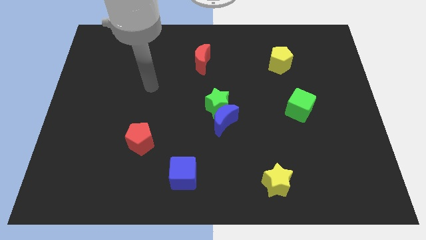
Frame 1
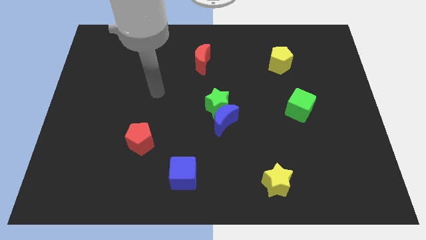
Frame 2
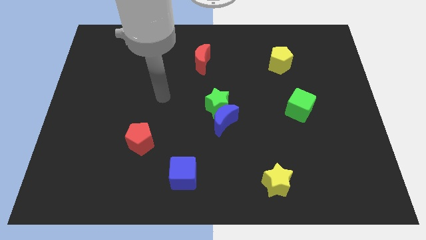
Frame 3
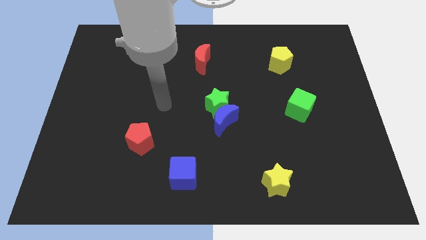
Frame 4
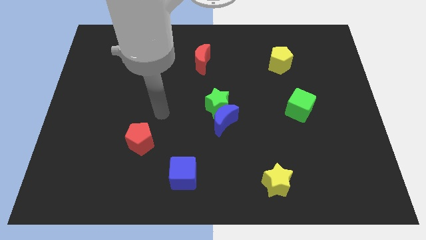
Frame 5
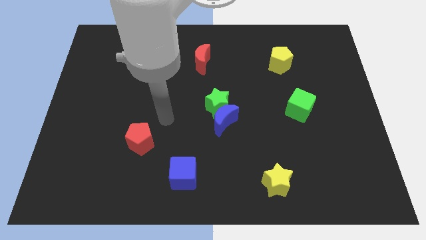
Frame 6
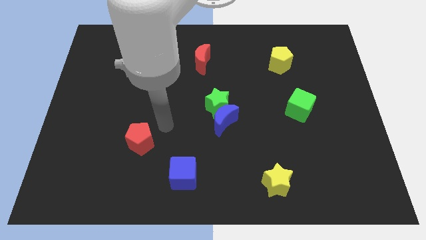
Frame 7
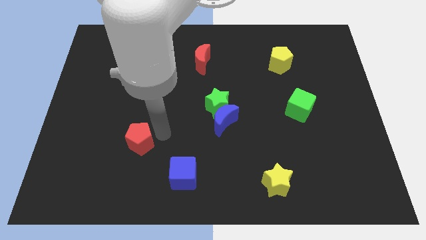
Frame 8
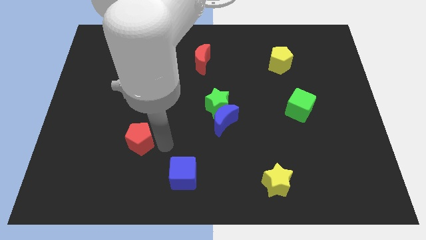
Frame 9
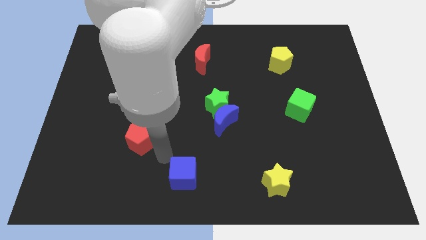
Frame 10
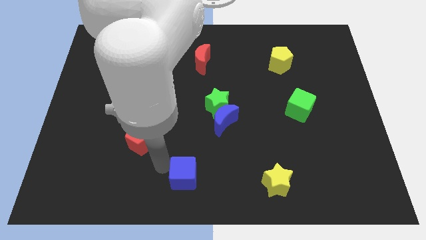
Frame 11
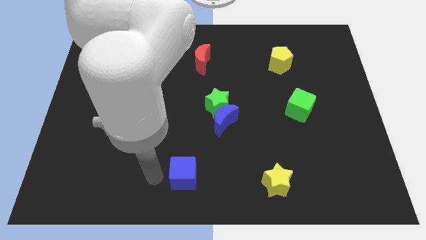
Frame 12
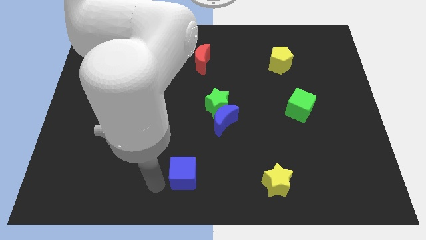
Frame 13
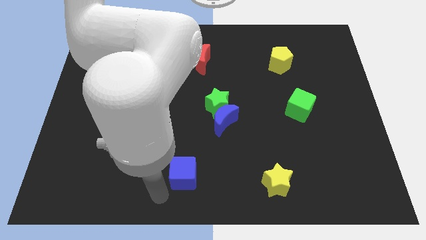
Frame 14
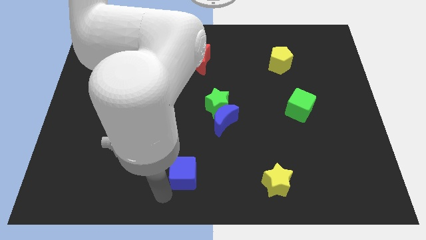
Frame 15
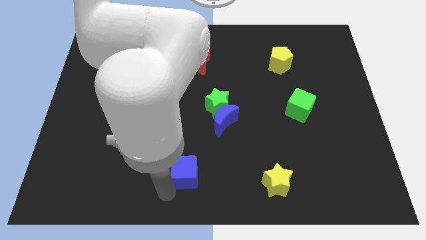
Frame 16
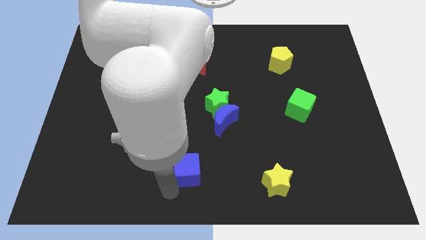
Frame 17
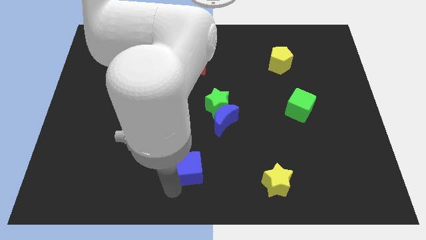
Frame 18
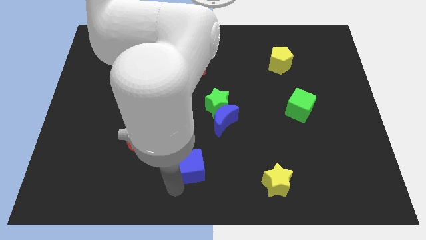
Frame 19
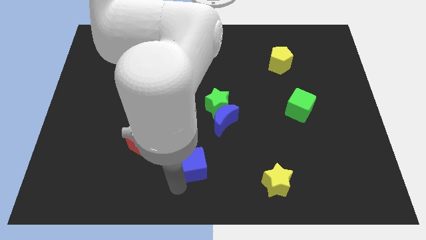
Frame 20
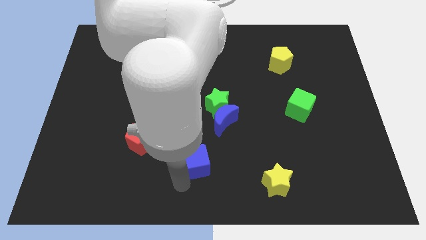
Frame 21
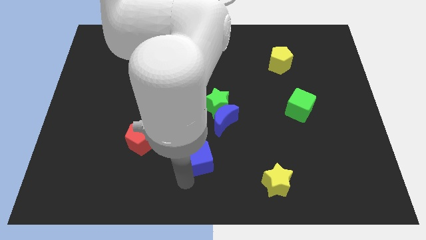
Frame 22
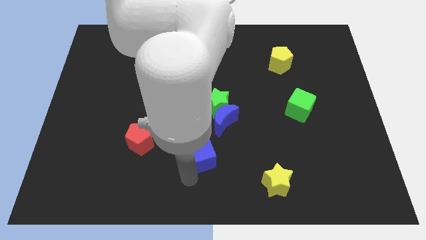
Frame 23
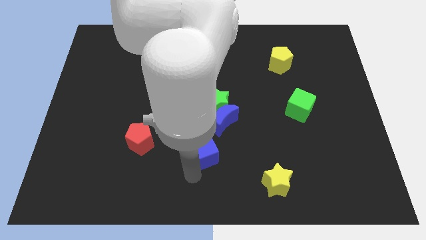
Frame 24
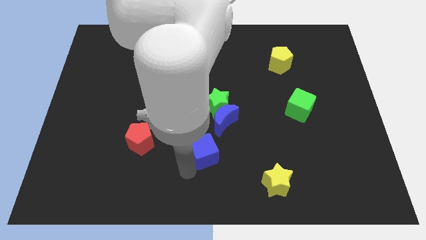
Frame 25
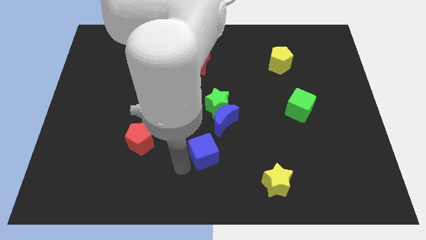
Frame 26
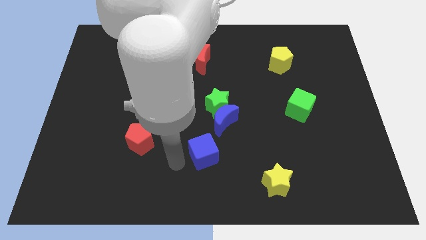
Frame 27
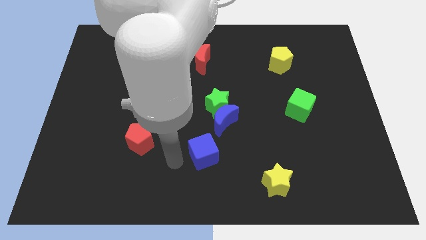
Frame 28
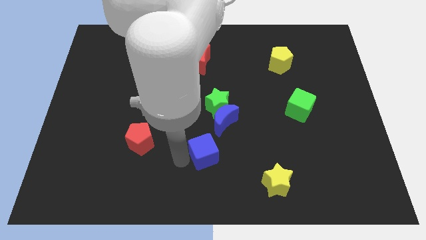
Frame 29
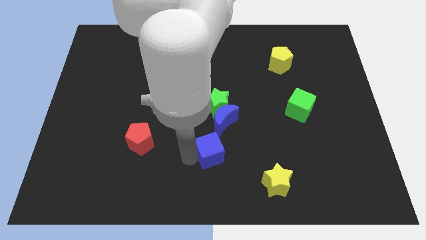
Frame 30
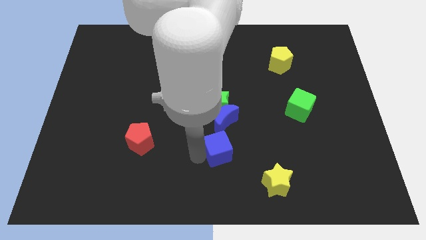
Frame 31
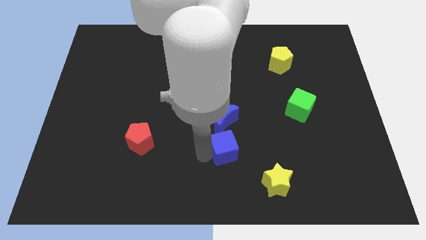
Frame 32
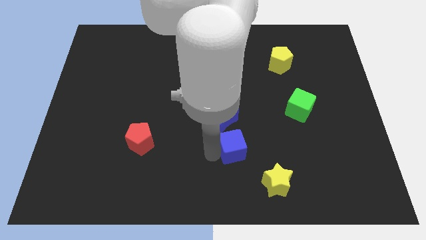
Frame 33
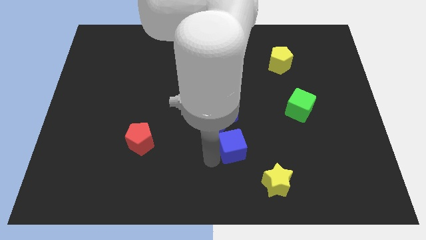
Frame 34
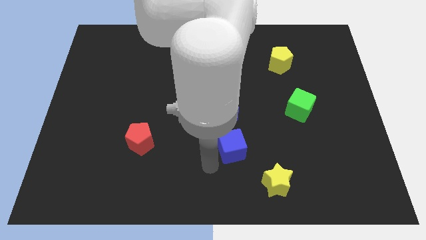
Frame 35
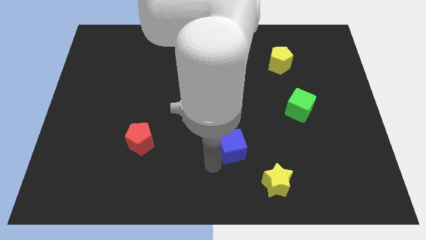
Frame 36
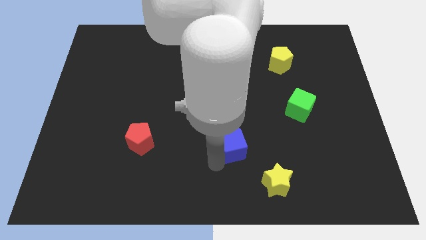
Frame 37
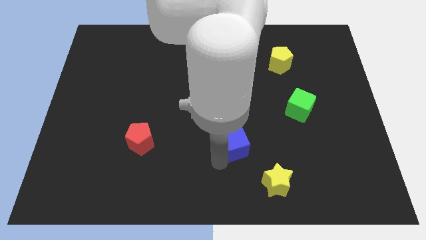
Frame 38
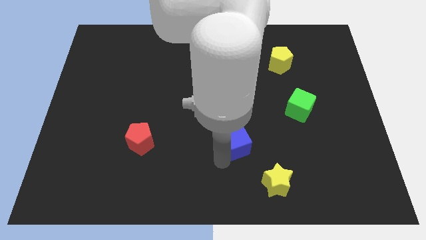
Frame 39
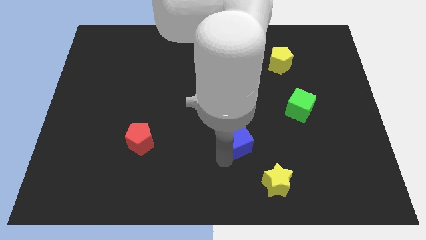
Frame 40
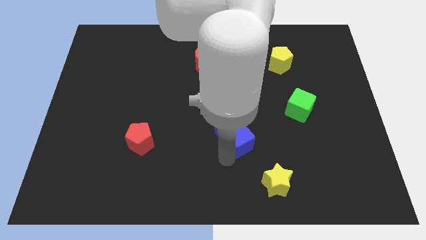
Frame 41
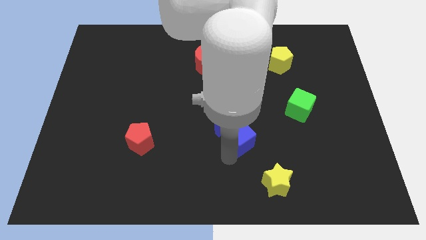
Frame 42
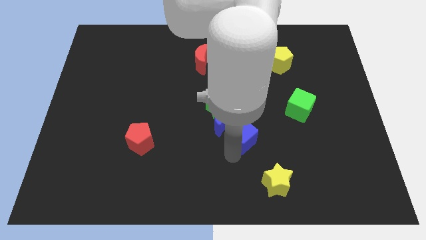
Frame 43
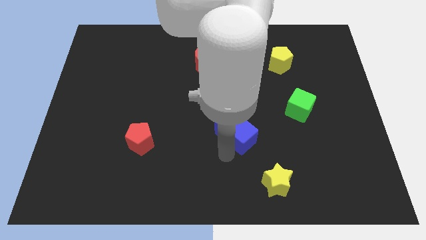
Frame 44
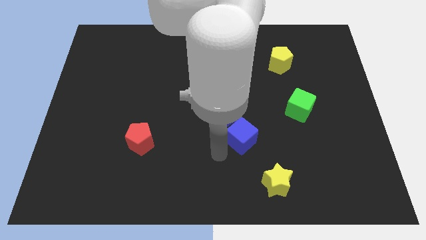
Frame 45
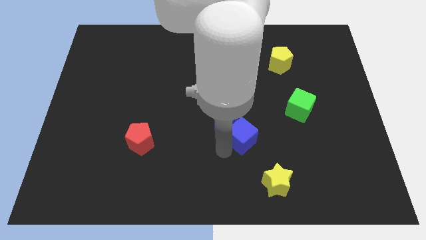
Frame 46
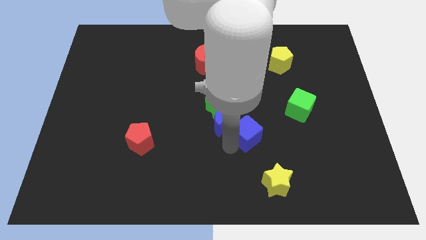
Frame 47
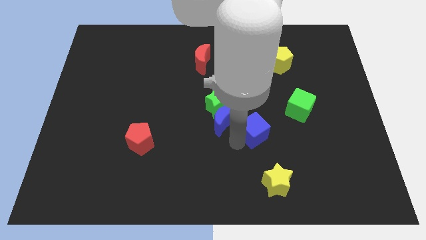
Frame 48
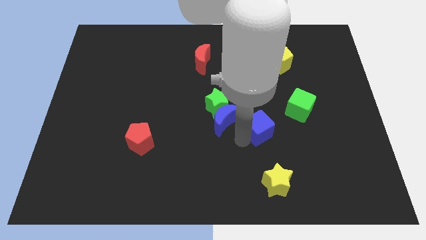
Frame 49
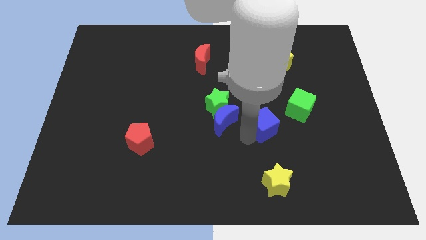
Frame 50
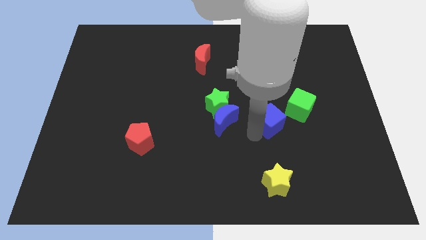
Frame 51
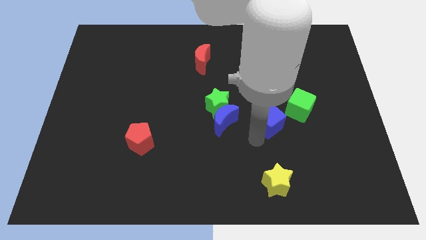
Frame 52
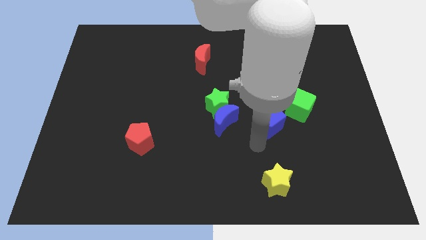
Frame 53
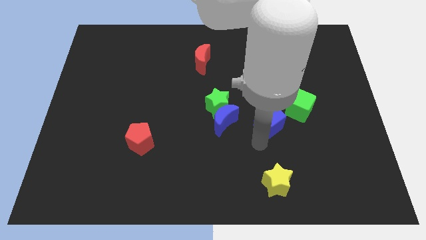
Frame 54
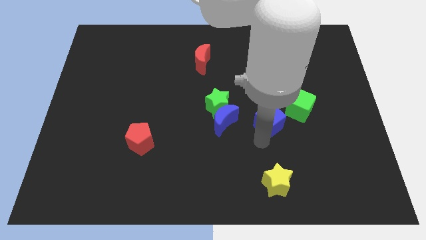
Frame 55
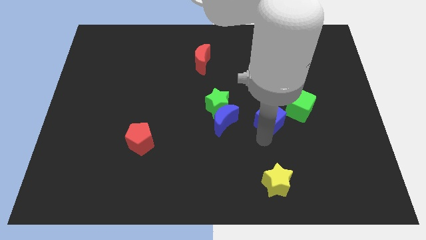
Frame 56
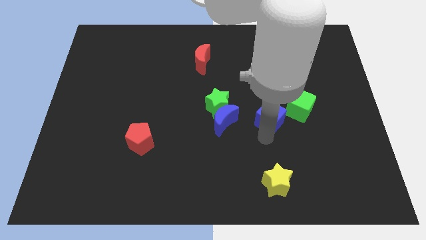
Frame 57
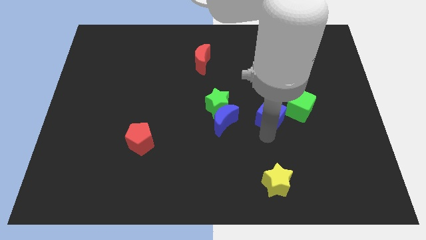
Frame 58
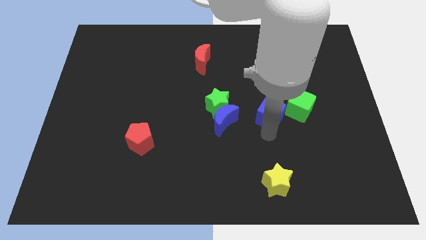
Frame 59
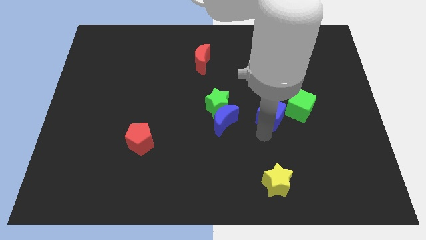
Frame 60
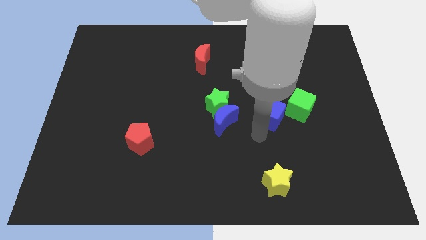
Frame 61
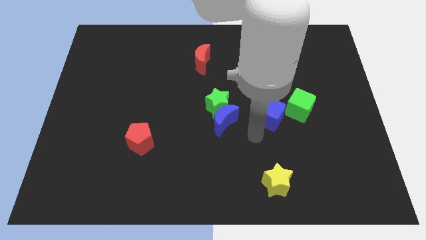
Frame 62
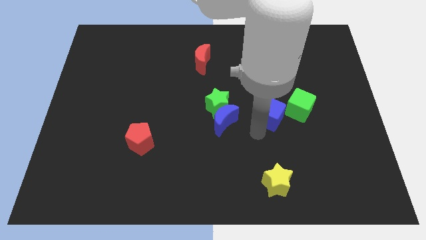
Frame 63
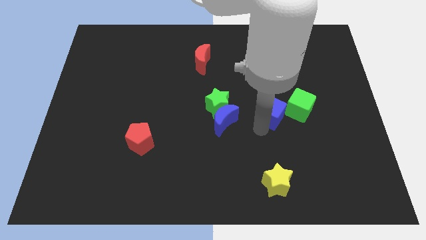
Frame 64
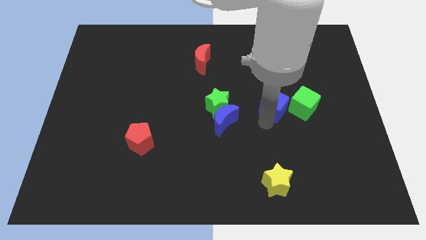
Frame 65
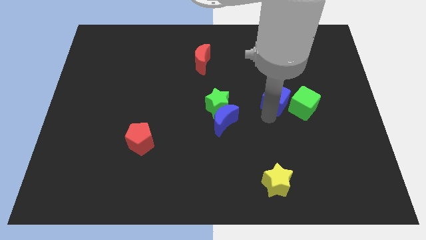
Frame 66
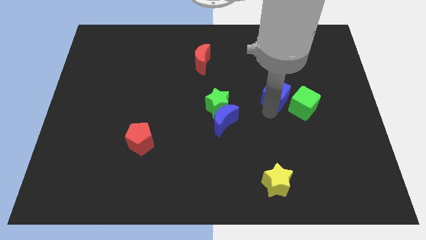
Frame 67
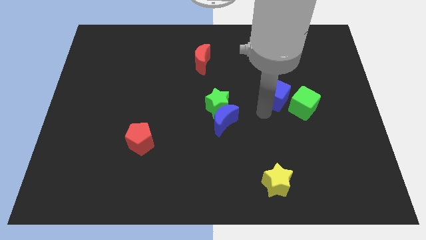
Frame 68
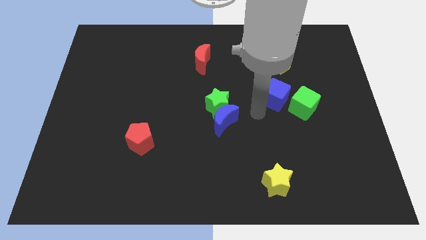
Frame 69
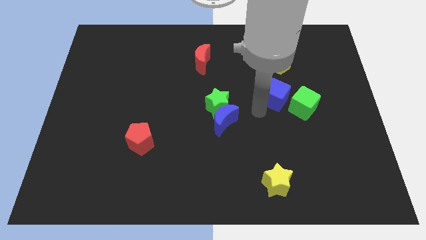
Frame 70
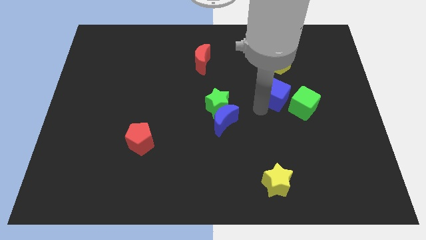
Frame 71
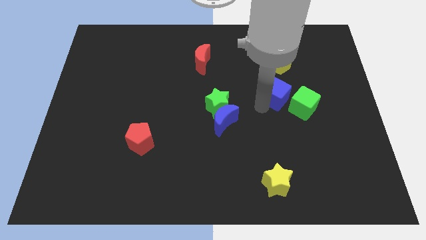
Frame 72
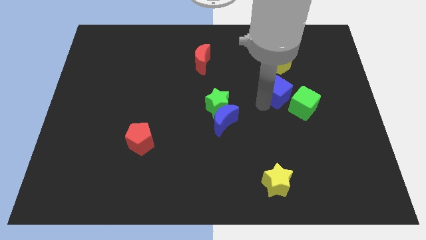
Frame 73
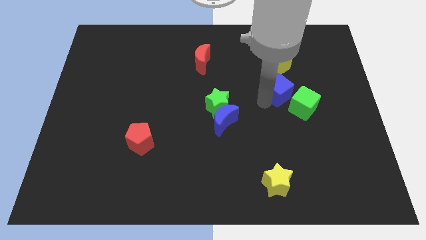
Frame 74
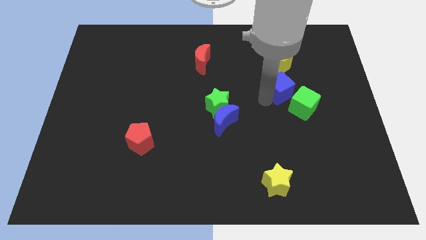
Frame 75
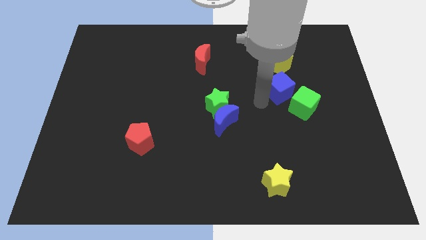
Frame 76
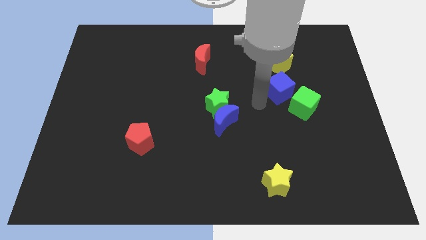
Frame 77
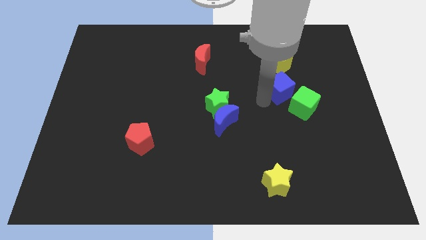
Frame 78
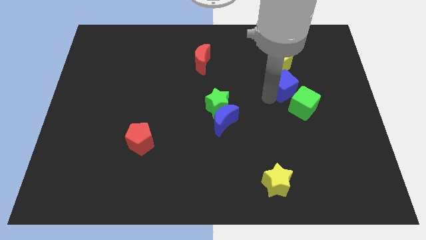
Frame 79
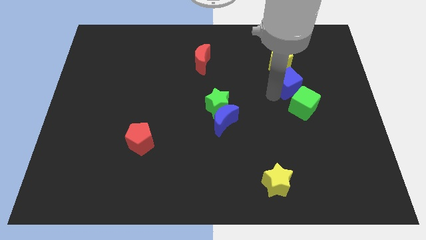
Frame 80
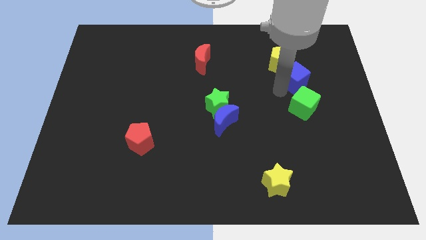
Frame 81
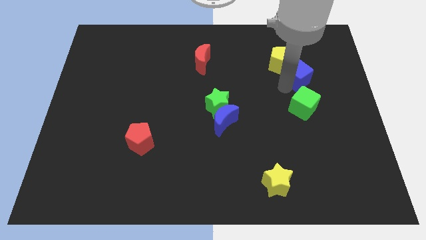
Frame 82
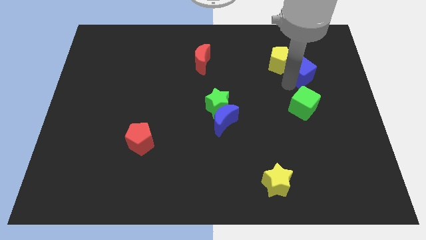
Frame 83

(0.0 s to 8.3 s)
put the blue cube to the right side of the yellow pentagon
